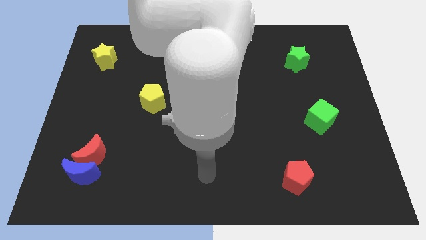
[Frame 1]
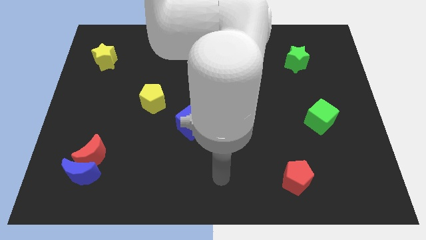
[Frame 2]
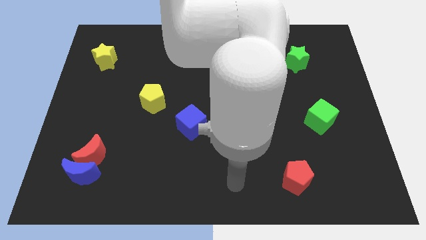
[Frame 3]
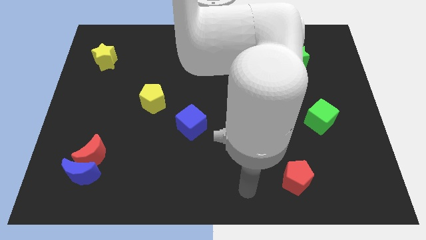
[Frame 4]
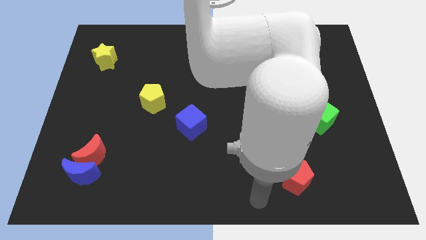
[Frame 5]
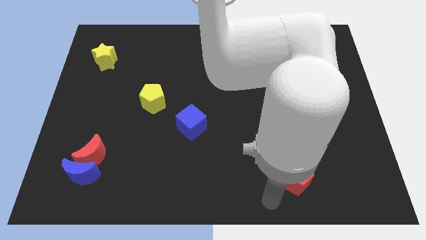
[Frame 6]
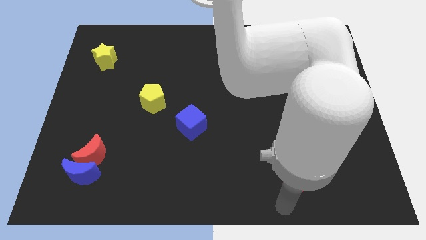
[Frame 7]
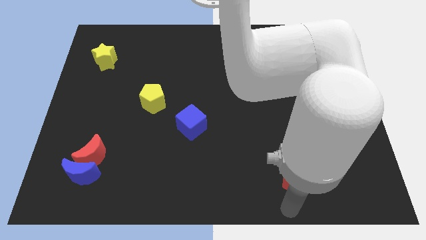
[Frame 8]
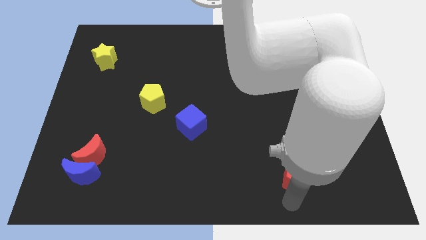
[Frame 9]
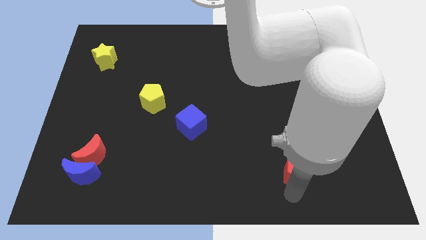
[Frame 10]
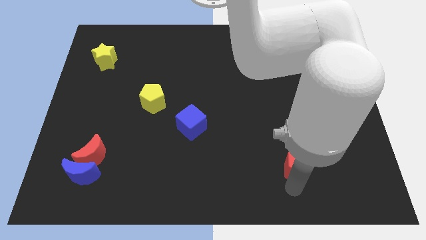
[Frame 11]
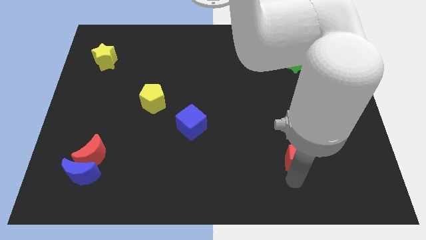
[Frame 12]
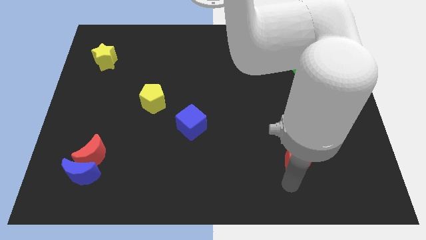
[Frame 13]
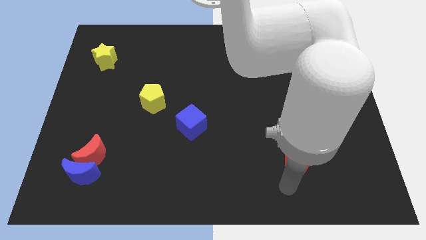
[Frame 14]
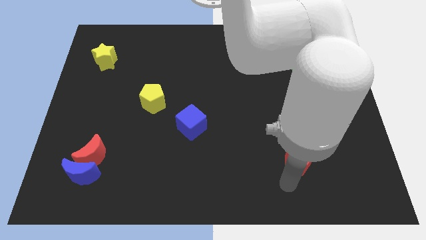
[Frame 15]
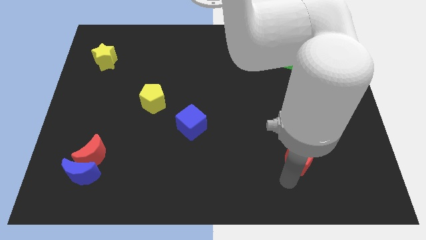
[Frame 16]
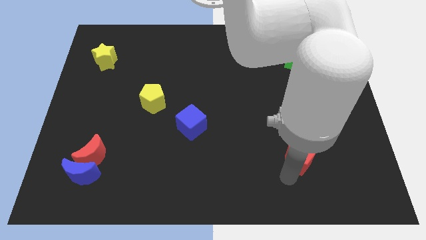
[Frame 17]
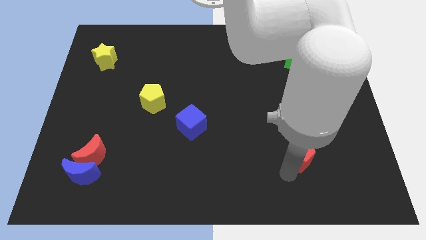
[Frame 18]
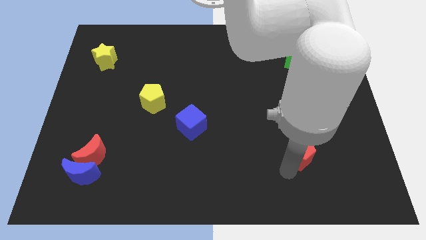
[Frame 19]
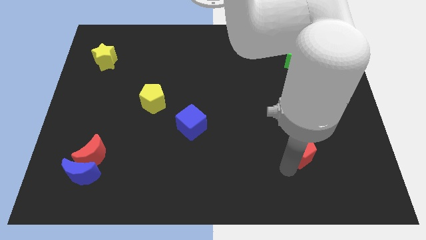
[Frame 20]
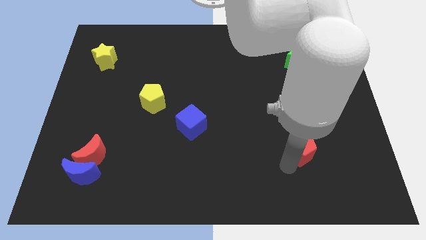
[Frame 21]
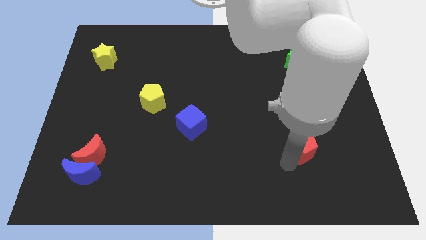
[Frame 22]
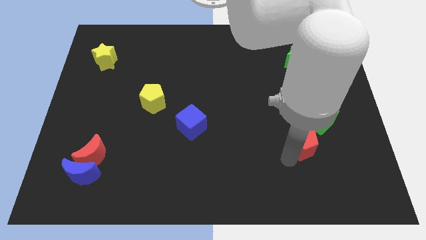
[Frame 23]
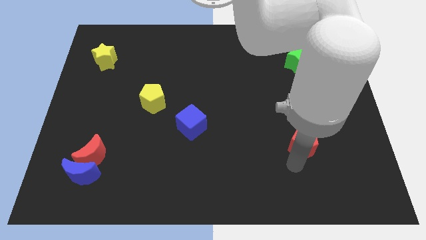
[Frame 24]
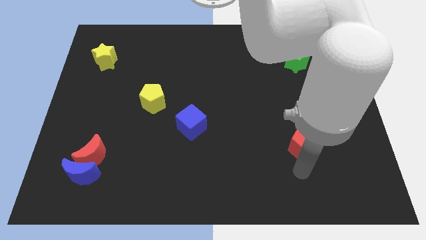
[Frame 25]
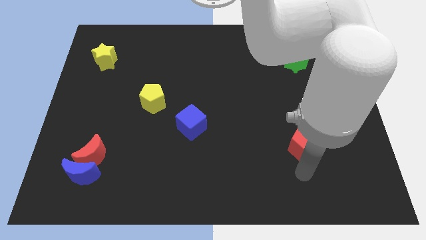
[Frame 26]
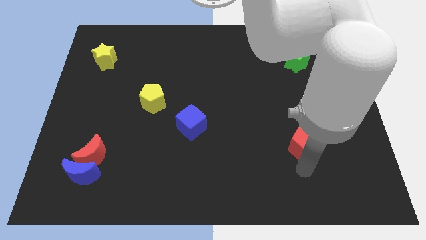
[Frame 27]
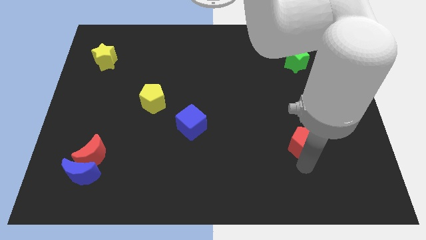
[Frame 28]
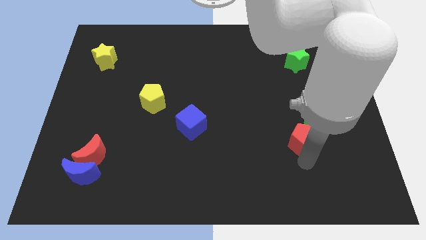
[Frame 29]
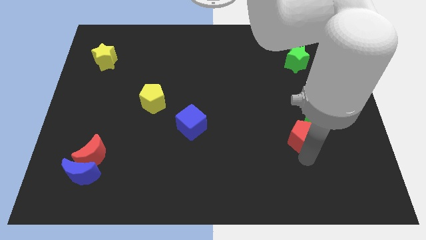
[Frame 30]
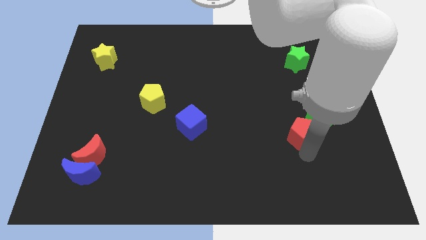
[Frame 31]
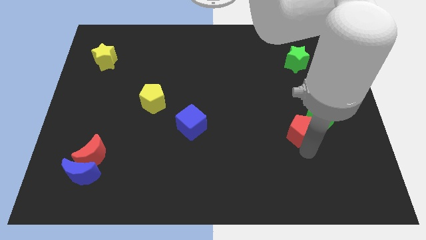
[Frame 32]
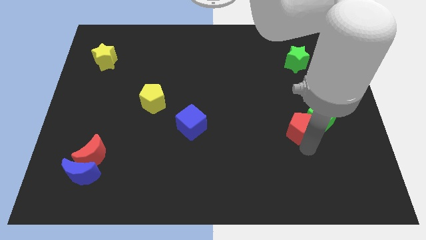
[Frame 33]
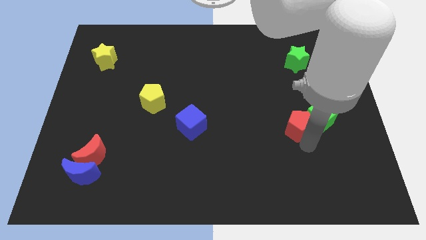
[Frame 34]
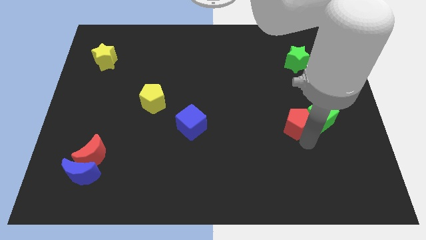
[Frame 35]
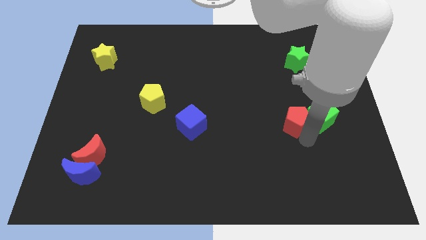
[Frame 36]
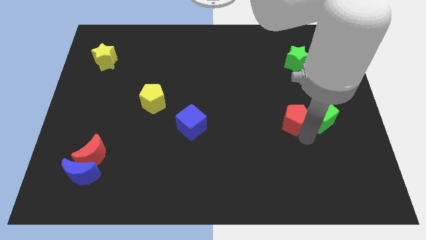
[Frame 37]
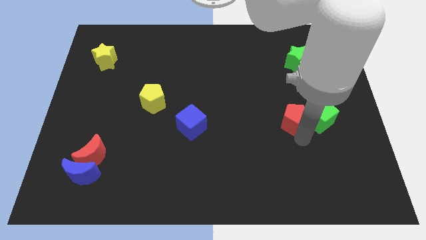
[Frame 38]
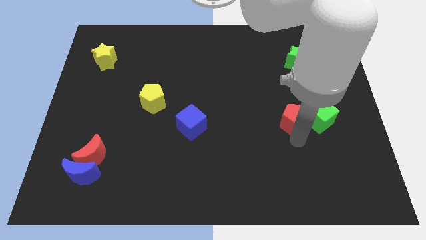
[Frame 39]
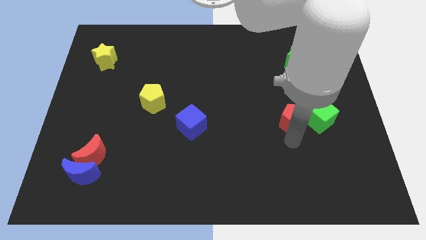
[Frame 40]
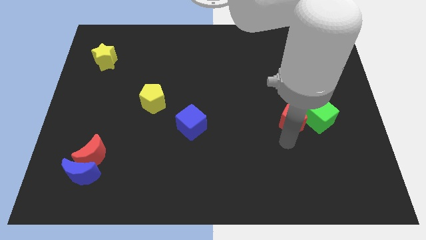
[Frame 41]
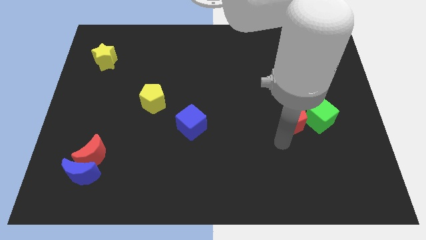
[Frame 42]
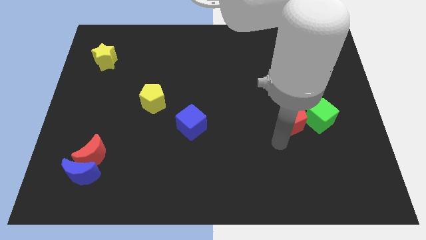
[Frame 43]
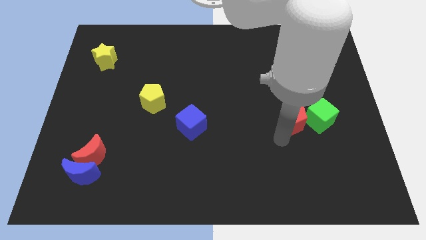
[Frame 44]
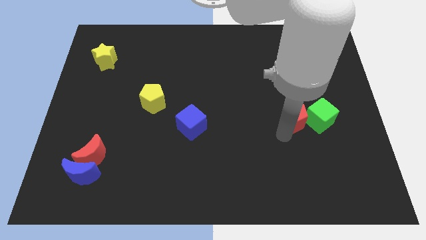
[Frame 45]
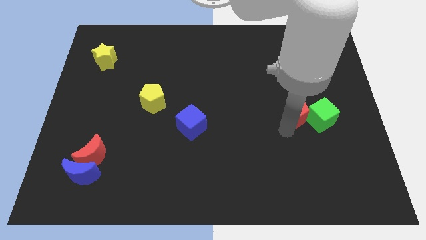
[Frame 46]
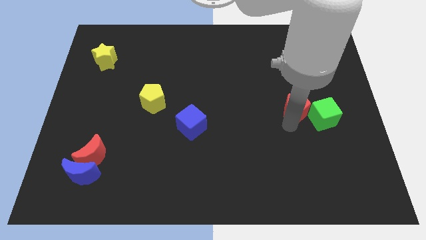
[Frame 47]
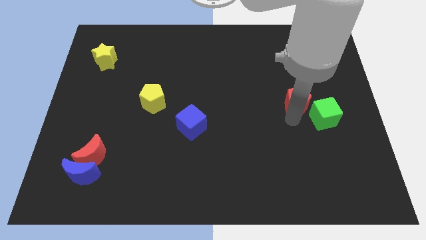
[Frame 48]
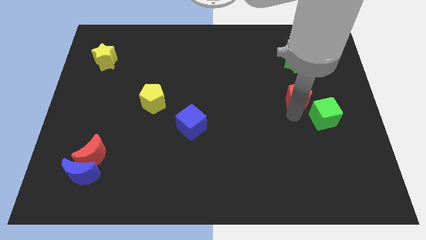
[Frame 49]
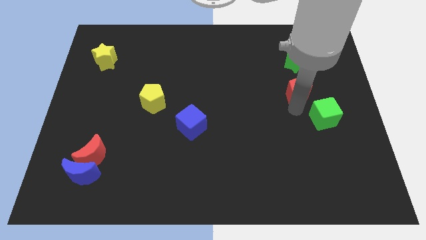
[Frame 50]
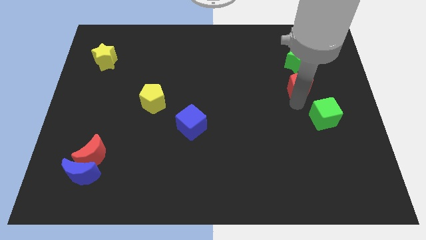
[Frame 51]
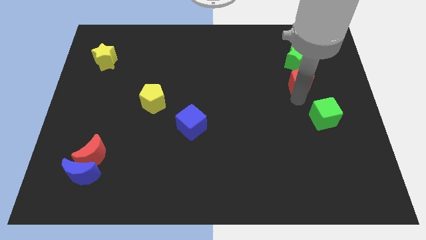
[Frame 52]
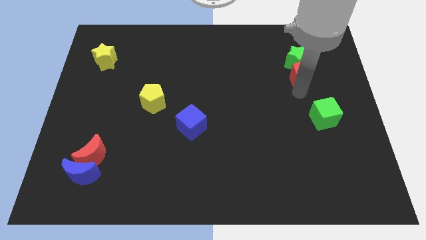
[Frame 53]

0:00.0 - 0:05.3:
move the red pentagon towards the green star

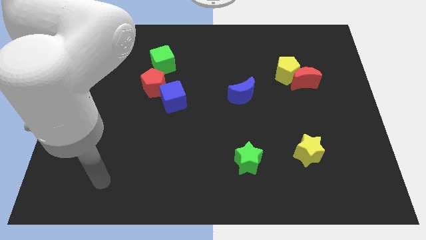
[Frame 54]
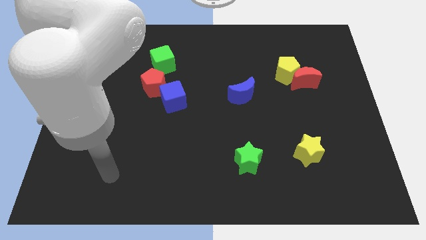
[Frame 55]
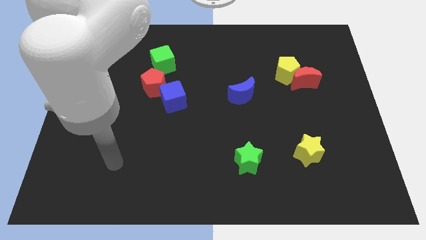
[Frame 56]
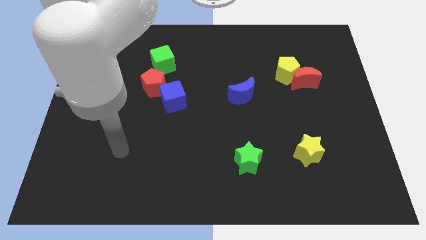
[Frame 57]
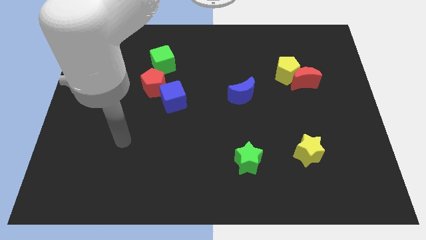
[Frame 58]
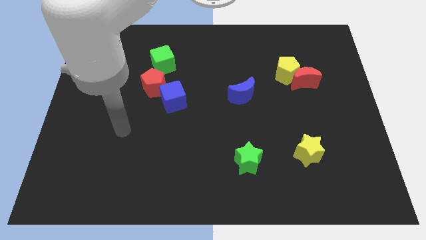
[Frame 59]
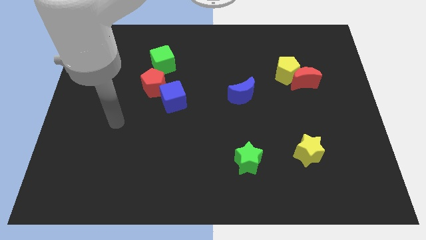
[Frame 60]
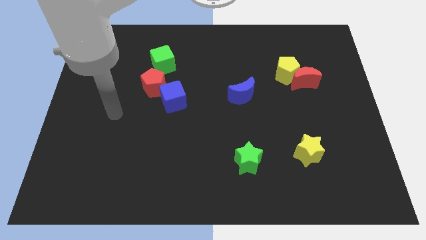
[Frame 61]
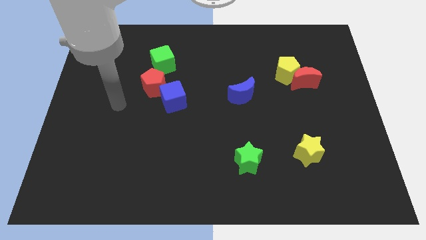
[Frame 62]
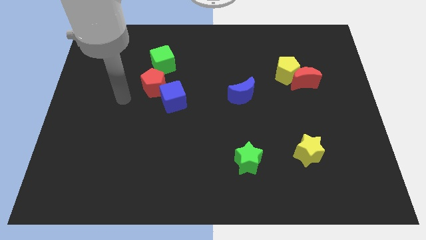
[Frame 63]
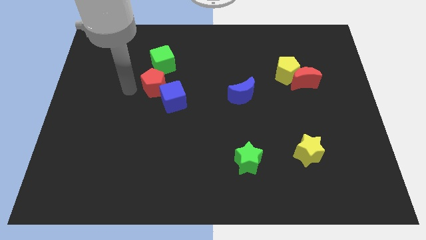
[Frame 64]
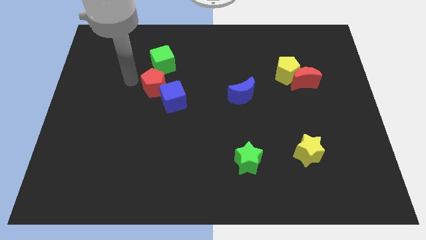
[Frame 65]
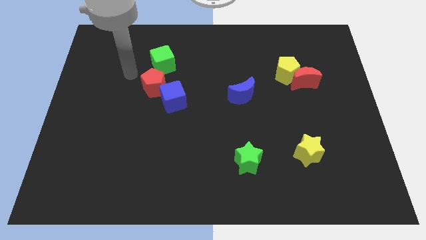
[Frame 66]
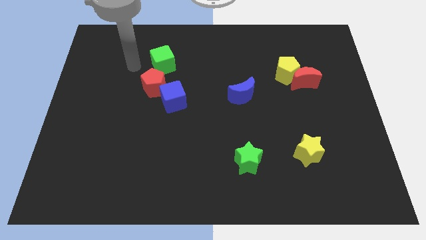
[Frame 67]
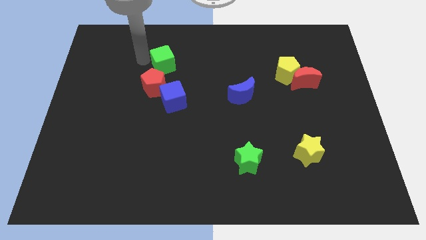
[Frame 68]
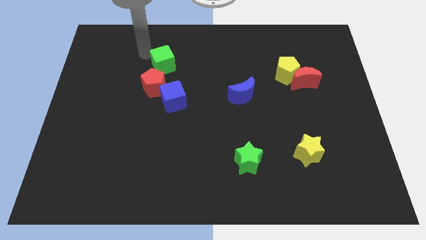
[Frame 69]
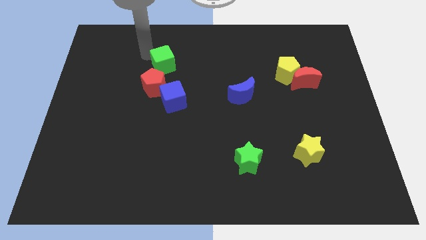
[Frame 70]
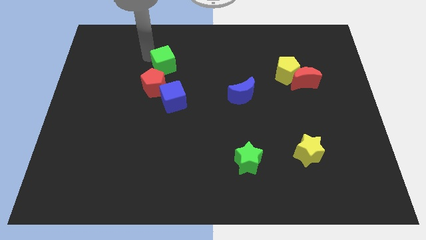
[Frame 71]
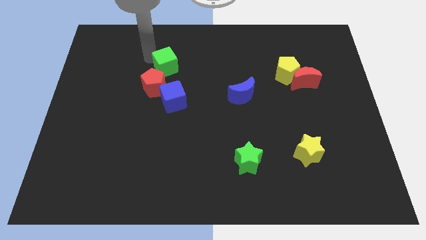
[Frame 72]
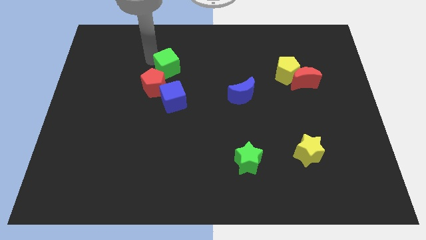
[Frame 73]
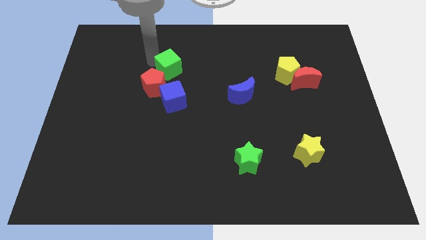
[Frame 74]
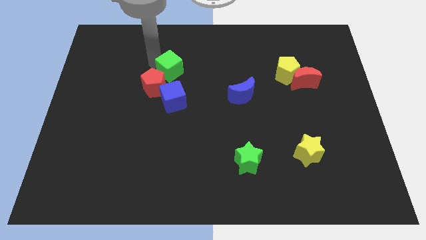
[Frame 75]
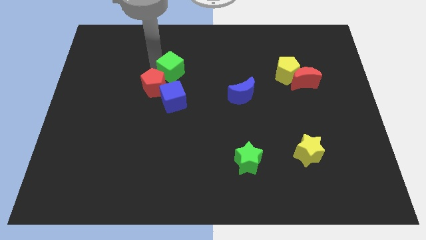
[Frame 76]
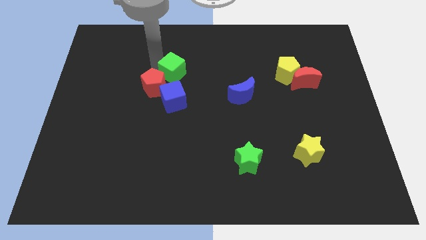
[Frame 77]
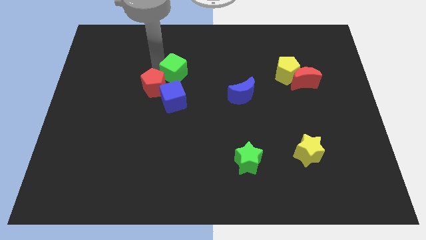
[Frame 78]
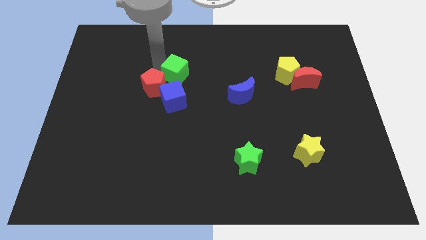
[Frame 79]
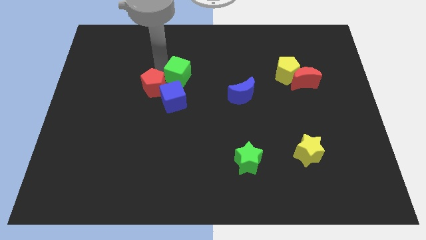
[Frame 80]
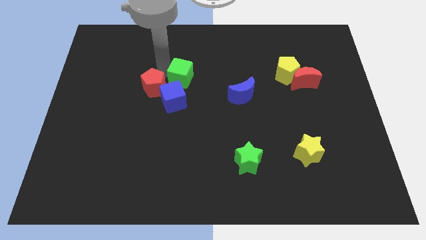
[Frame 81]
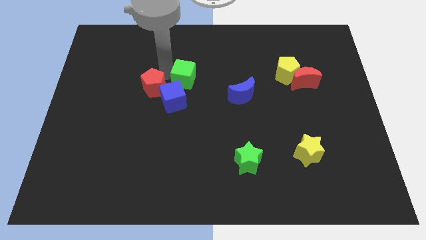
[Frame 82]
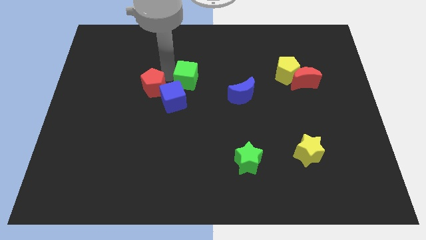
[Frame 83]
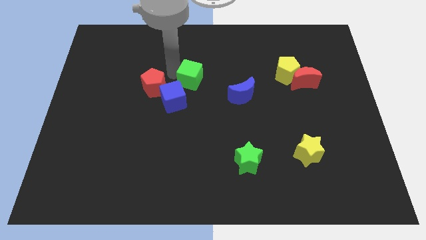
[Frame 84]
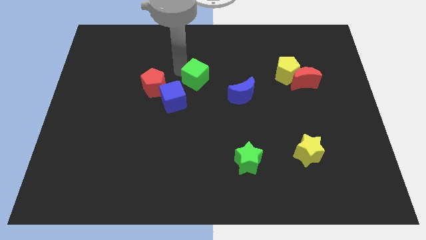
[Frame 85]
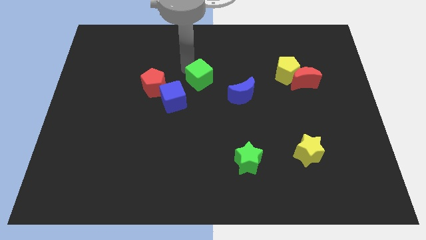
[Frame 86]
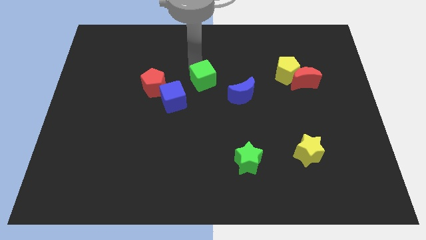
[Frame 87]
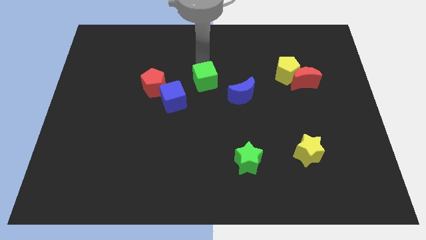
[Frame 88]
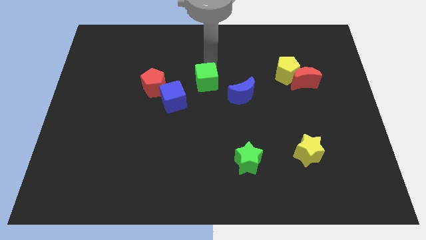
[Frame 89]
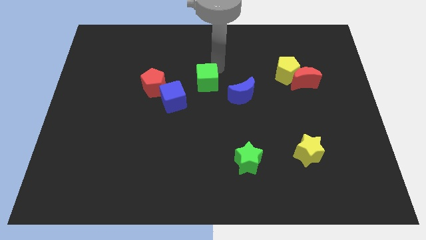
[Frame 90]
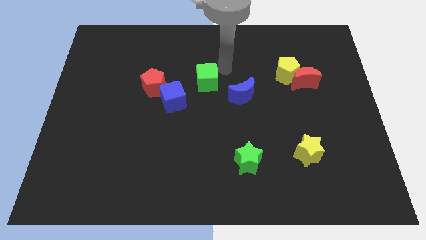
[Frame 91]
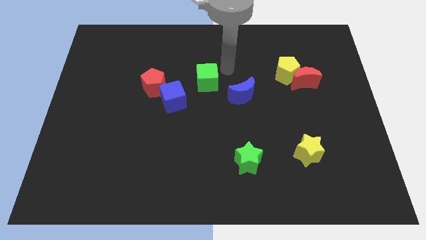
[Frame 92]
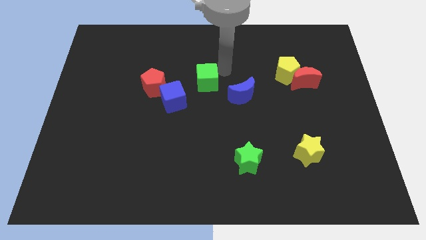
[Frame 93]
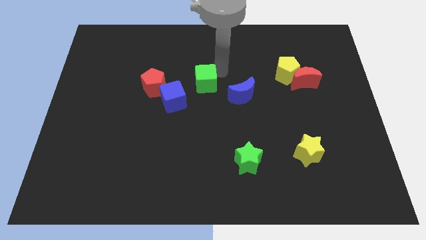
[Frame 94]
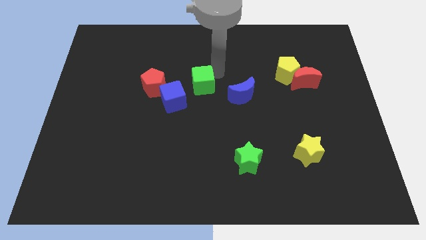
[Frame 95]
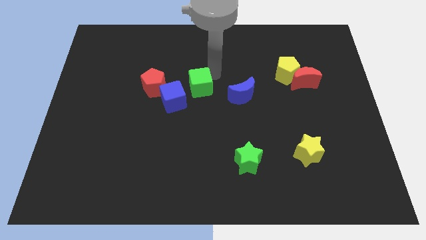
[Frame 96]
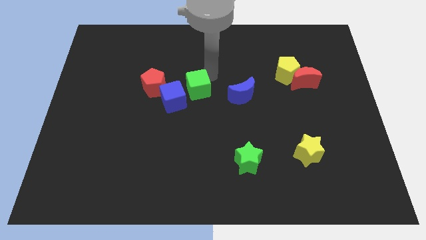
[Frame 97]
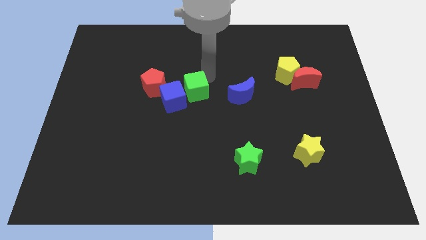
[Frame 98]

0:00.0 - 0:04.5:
move the green cube towards the blue cube
